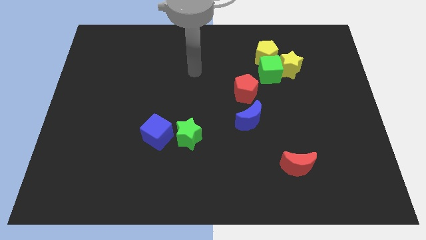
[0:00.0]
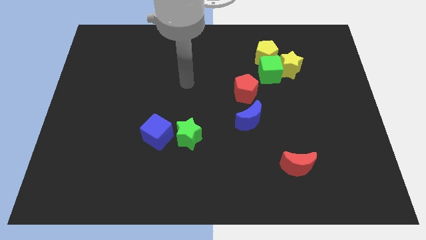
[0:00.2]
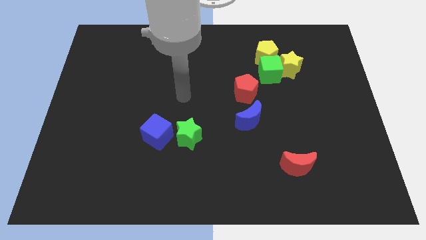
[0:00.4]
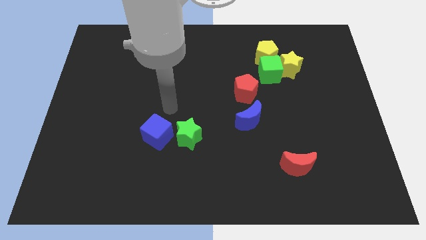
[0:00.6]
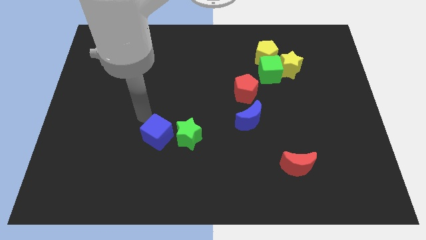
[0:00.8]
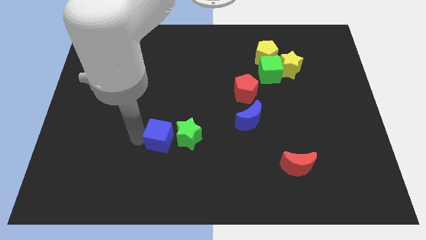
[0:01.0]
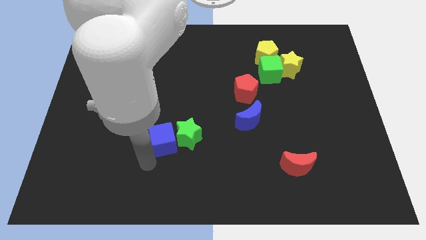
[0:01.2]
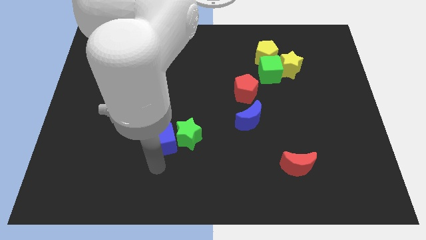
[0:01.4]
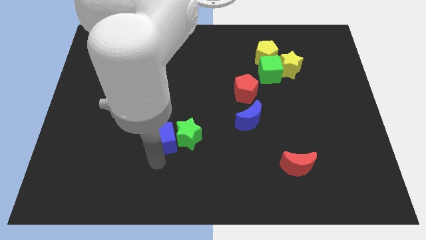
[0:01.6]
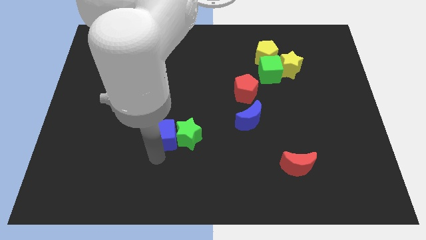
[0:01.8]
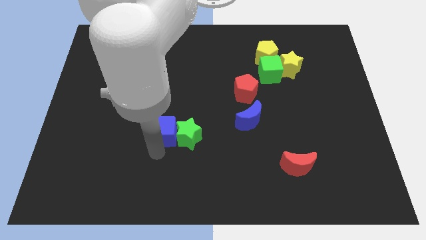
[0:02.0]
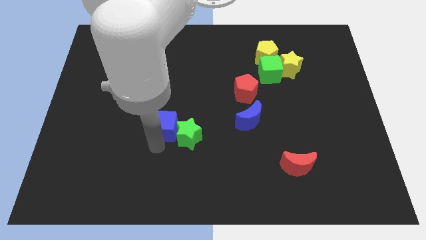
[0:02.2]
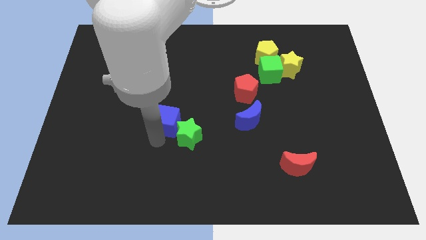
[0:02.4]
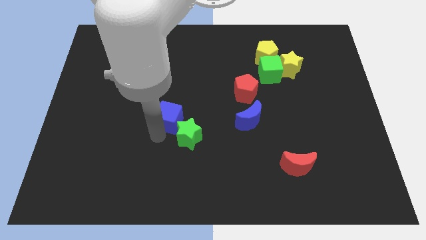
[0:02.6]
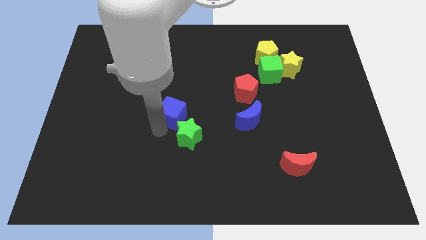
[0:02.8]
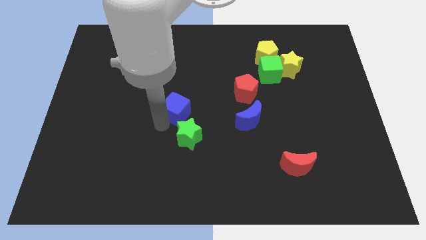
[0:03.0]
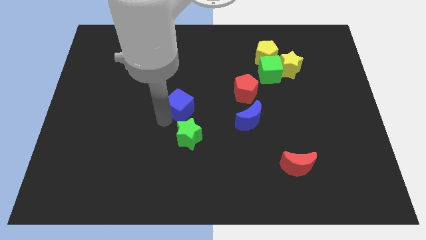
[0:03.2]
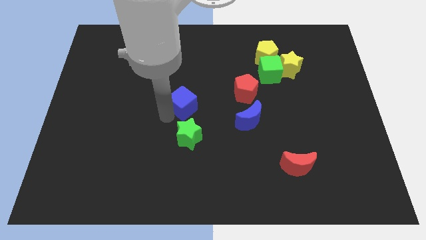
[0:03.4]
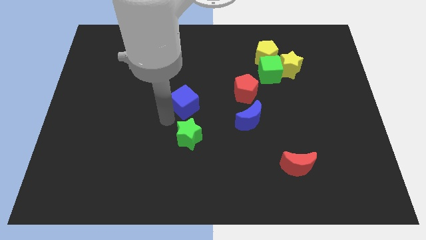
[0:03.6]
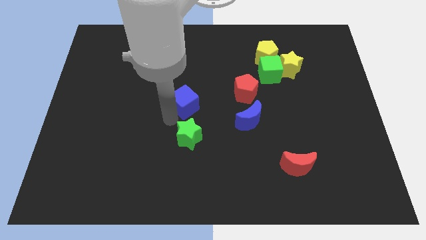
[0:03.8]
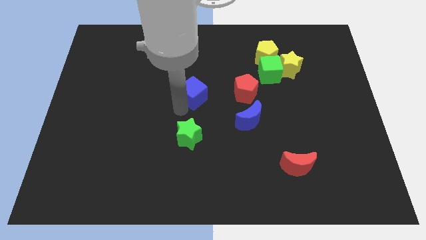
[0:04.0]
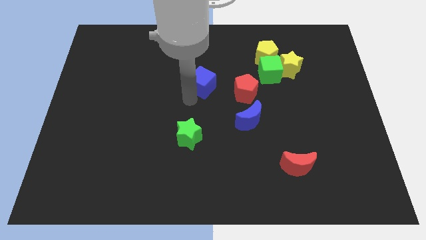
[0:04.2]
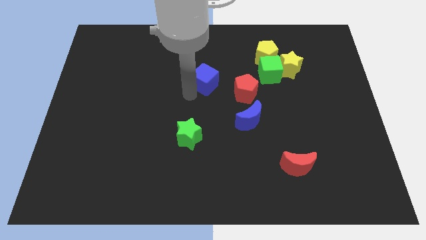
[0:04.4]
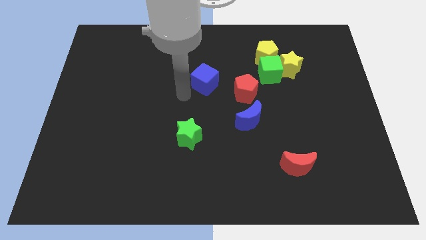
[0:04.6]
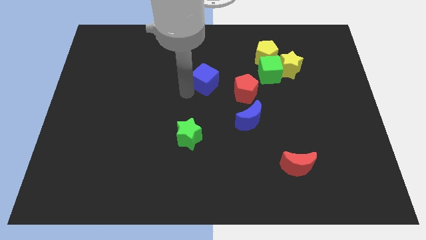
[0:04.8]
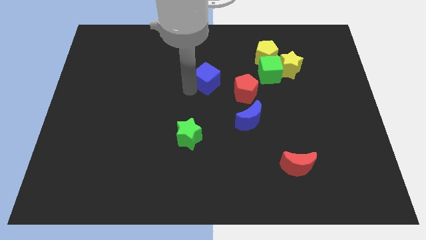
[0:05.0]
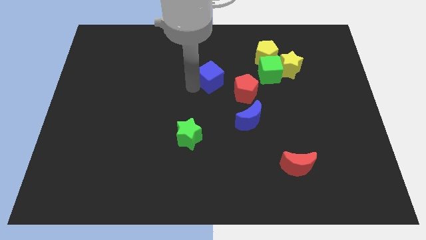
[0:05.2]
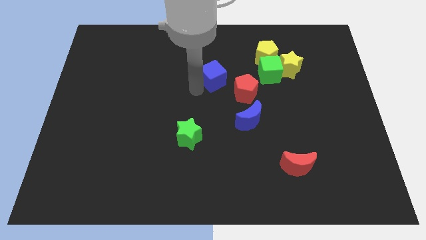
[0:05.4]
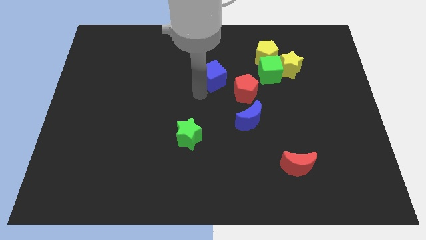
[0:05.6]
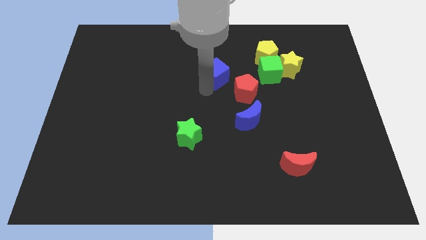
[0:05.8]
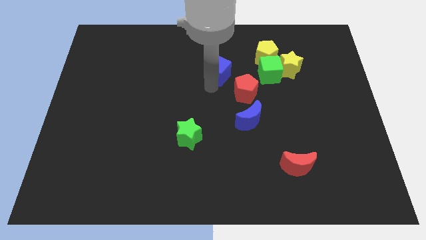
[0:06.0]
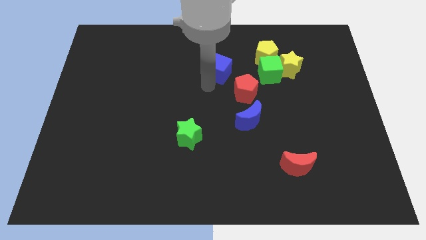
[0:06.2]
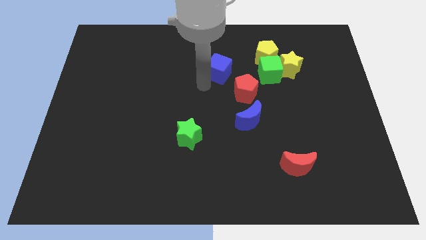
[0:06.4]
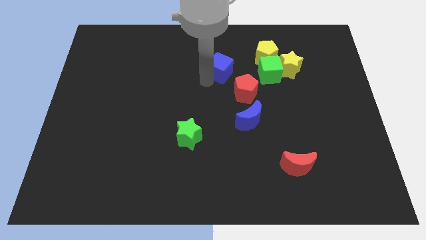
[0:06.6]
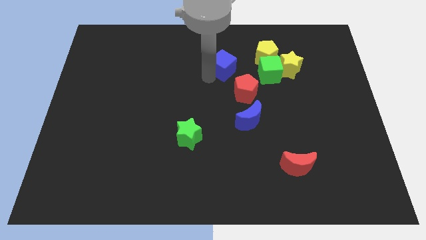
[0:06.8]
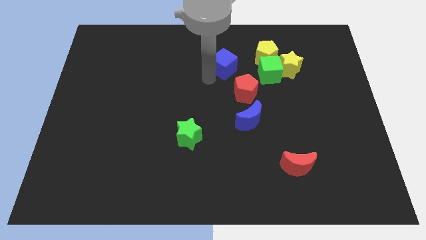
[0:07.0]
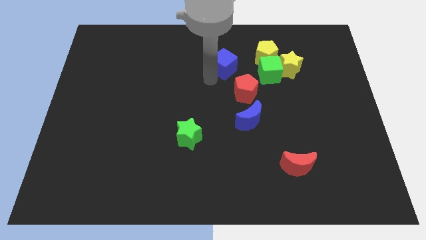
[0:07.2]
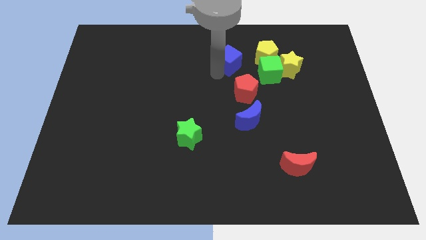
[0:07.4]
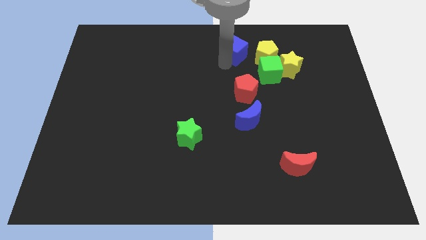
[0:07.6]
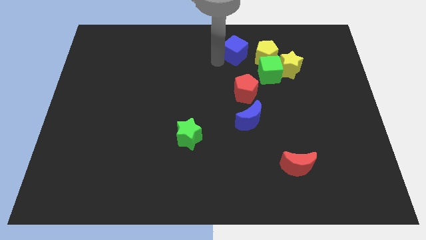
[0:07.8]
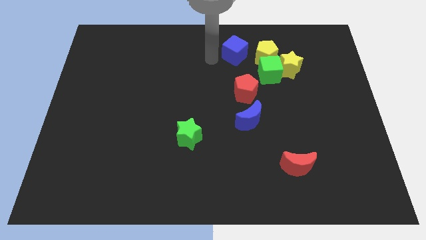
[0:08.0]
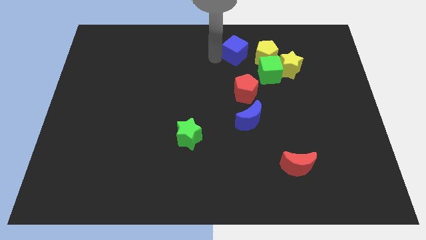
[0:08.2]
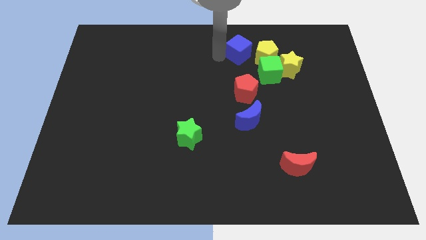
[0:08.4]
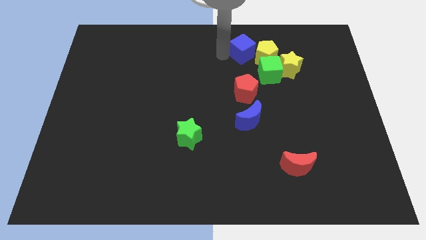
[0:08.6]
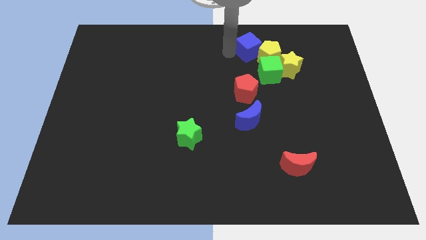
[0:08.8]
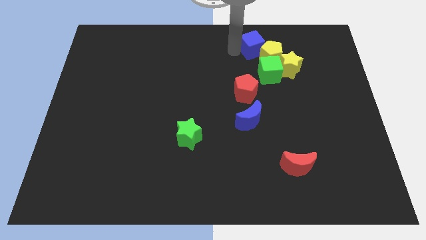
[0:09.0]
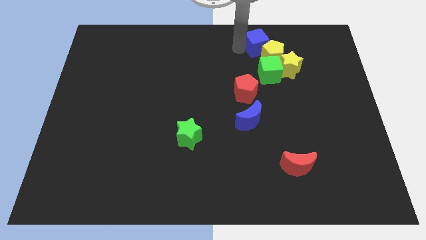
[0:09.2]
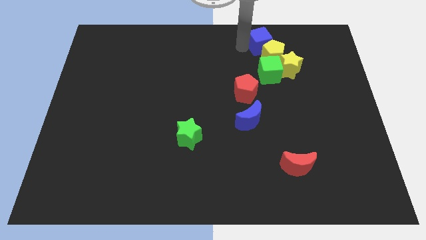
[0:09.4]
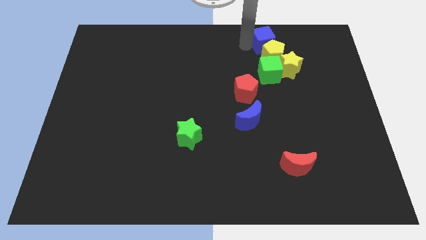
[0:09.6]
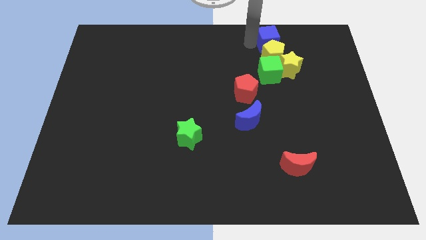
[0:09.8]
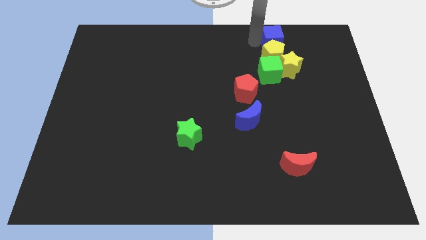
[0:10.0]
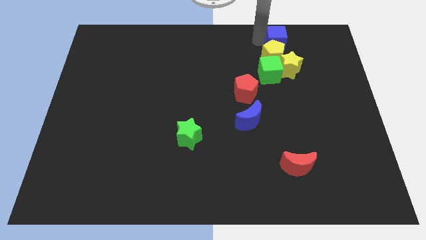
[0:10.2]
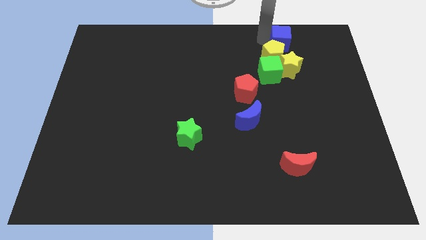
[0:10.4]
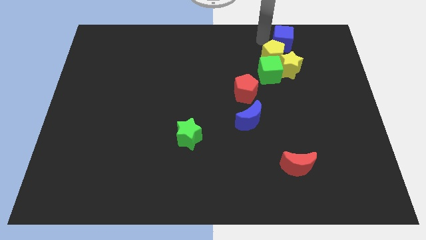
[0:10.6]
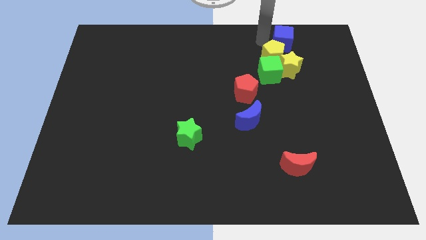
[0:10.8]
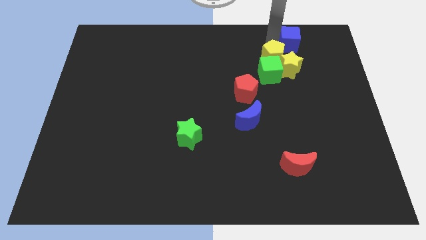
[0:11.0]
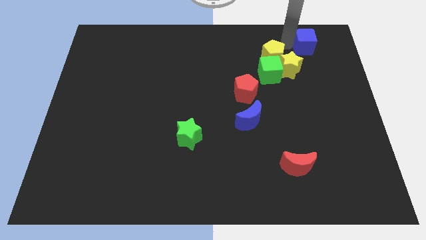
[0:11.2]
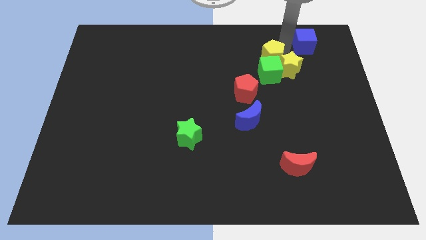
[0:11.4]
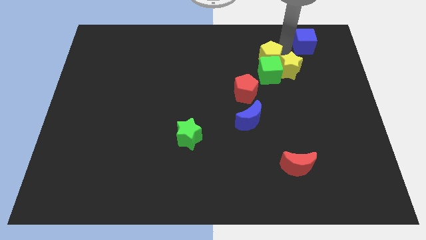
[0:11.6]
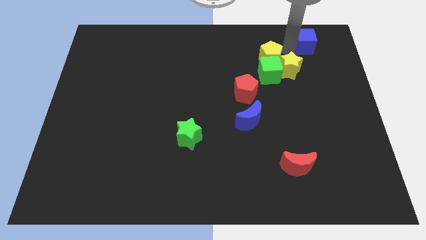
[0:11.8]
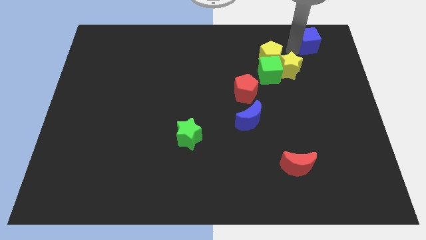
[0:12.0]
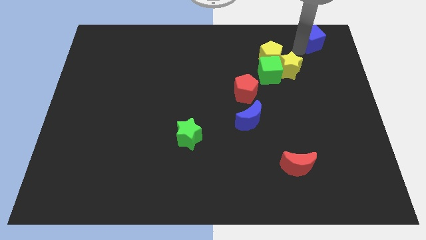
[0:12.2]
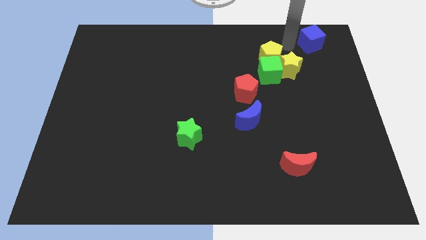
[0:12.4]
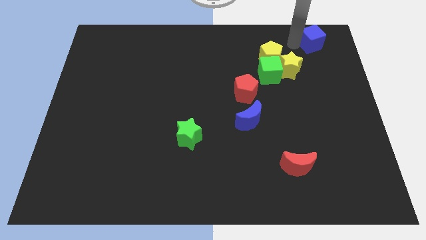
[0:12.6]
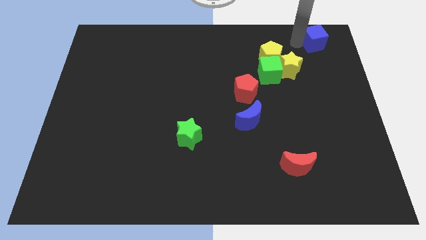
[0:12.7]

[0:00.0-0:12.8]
put the blue cube to the upper right corner
